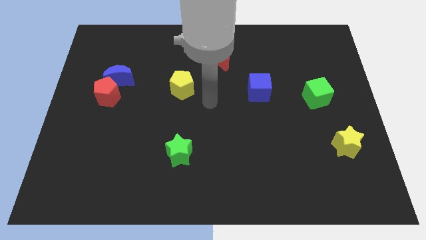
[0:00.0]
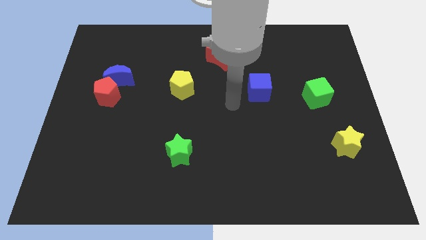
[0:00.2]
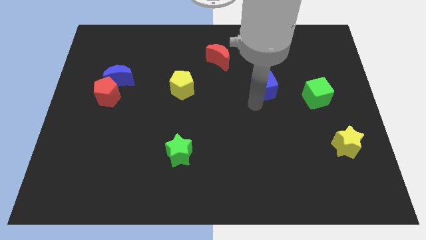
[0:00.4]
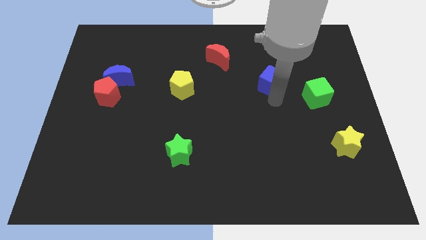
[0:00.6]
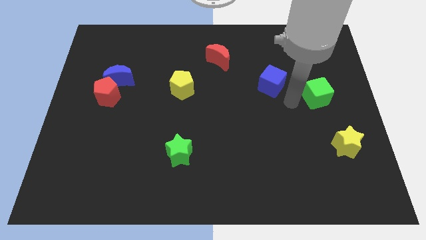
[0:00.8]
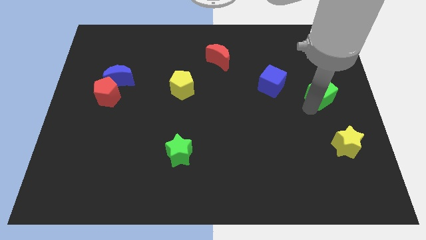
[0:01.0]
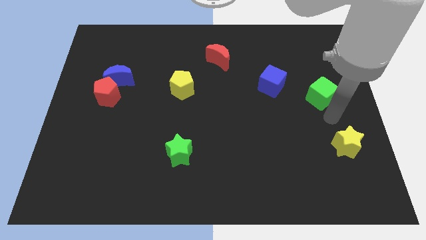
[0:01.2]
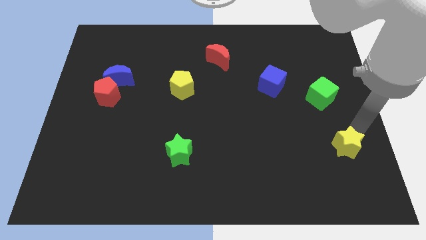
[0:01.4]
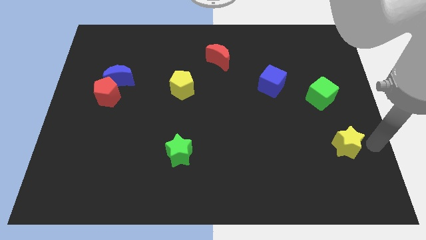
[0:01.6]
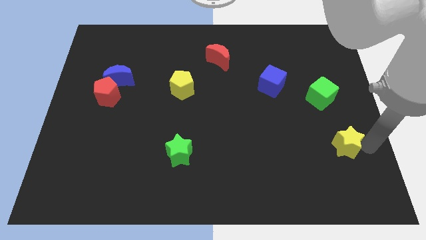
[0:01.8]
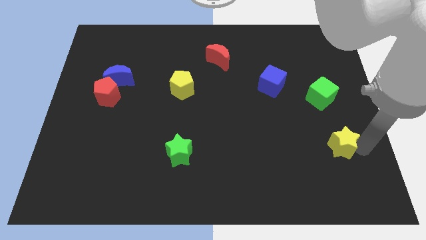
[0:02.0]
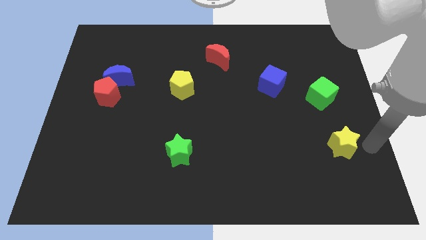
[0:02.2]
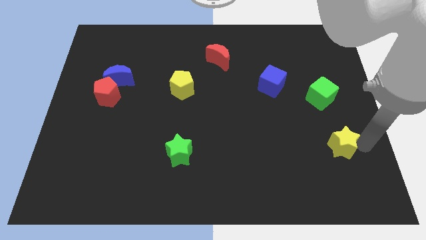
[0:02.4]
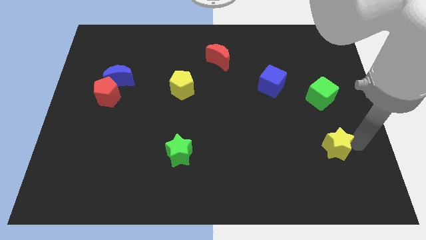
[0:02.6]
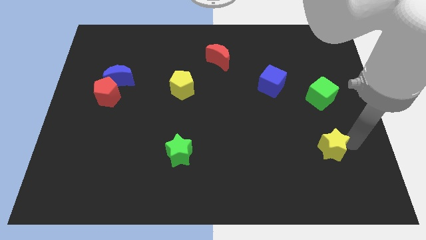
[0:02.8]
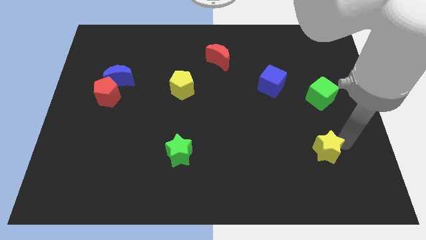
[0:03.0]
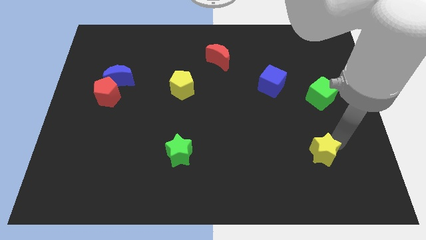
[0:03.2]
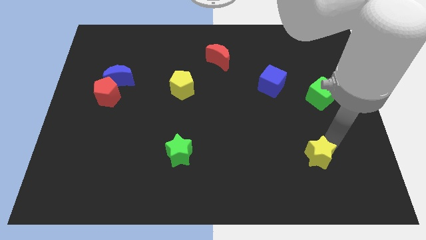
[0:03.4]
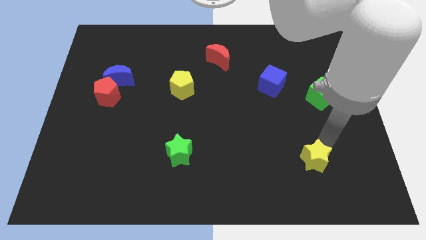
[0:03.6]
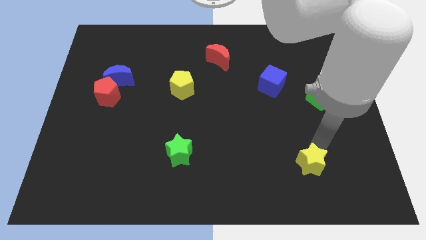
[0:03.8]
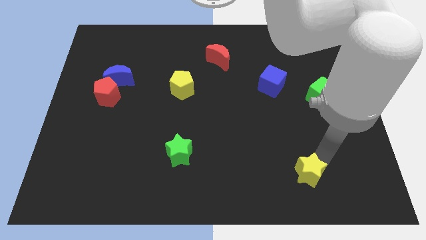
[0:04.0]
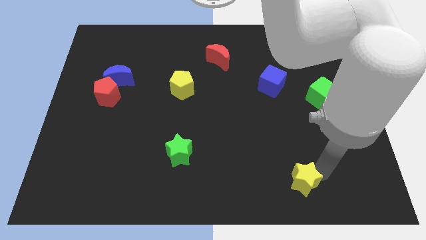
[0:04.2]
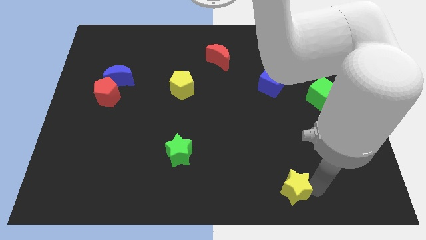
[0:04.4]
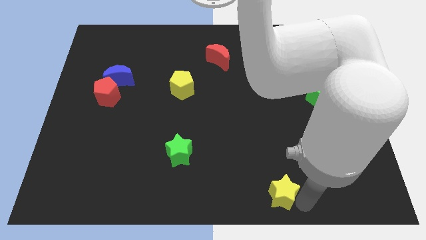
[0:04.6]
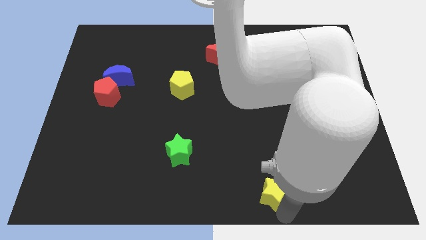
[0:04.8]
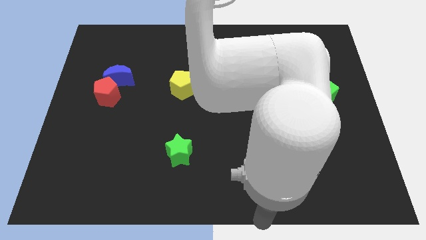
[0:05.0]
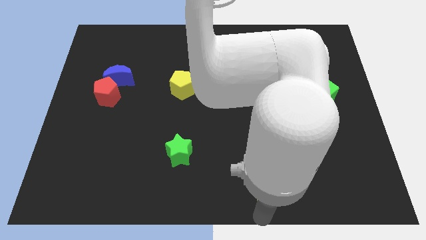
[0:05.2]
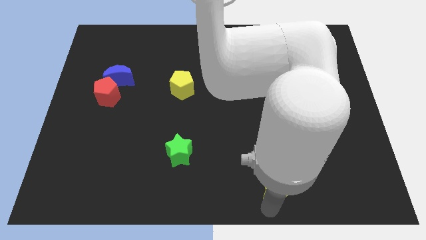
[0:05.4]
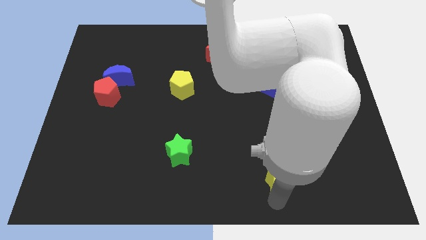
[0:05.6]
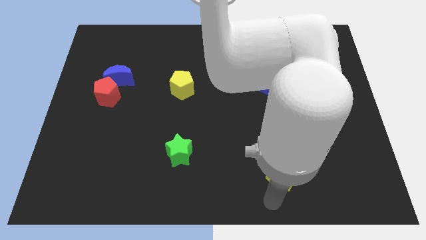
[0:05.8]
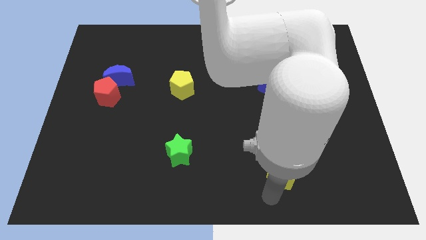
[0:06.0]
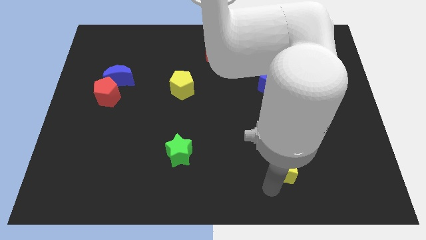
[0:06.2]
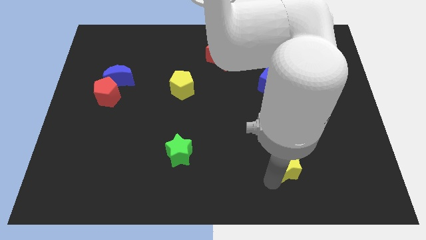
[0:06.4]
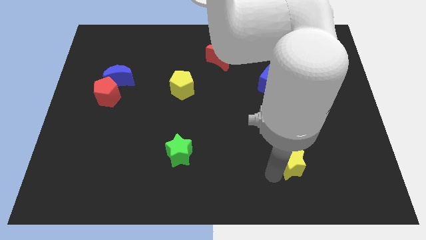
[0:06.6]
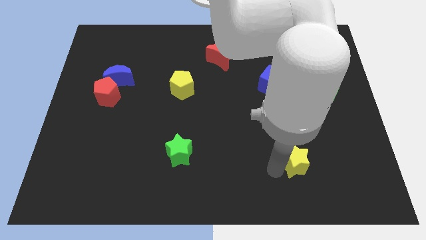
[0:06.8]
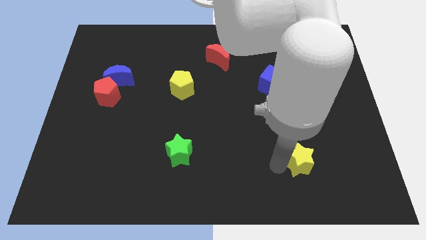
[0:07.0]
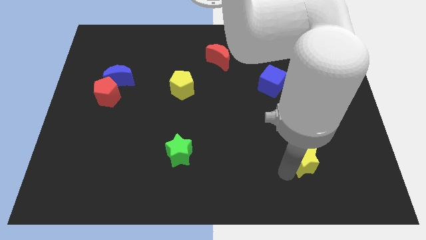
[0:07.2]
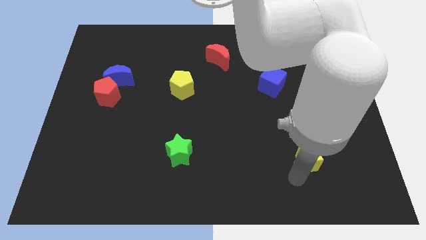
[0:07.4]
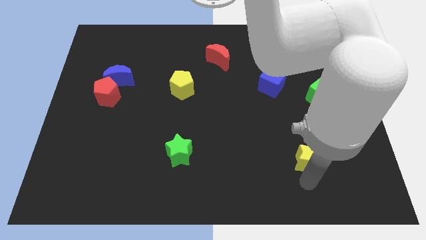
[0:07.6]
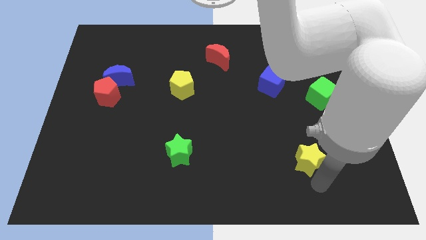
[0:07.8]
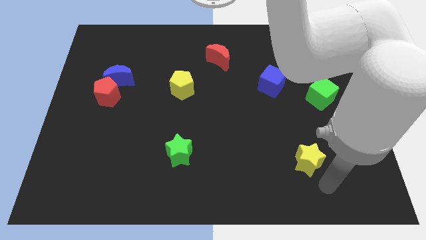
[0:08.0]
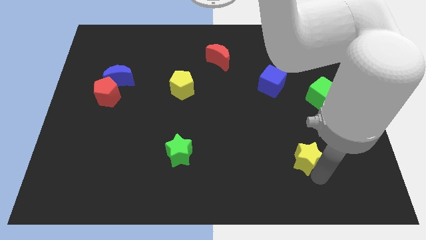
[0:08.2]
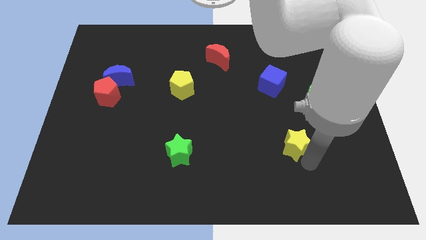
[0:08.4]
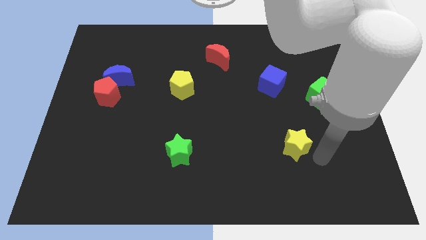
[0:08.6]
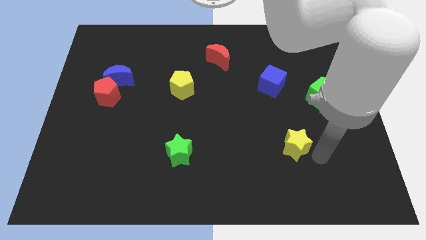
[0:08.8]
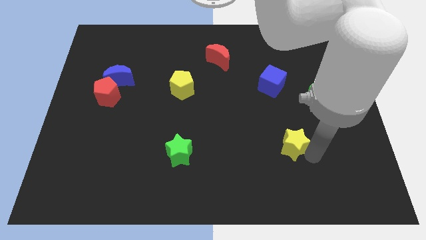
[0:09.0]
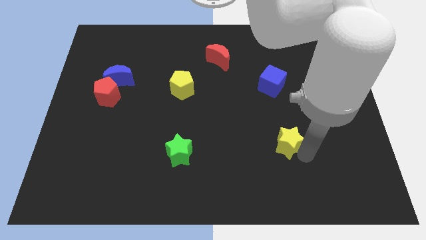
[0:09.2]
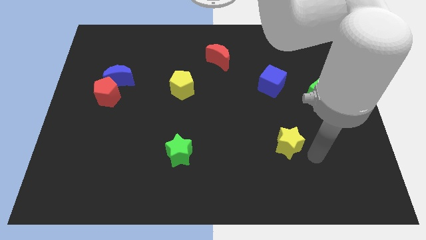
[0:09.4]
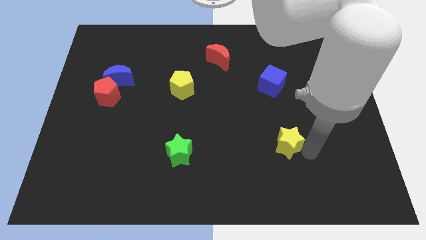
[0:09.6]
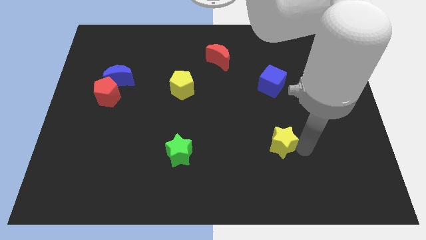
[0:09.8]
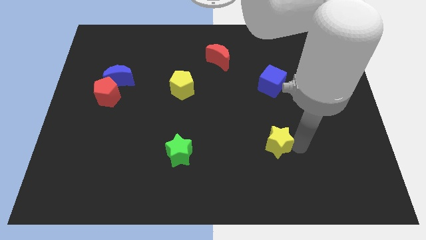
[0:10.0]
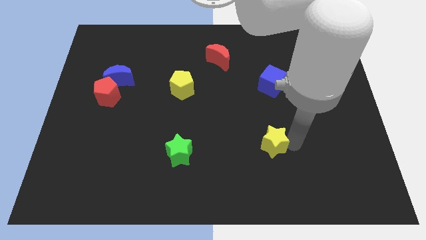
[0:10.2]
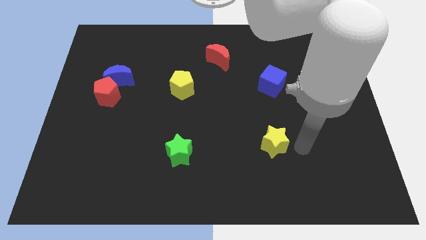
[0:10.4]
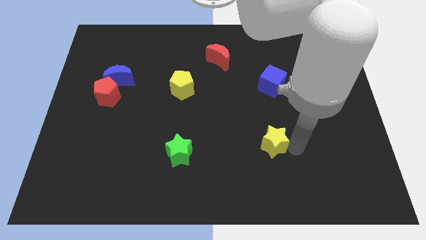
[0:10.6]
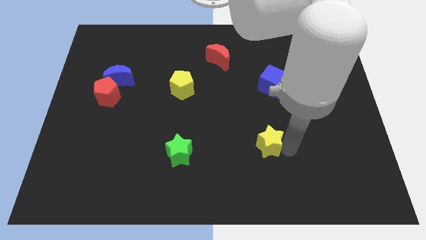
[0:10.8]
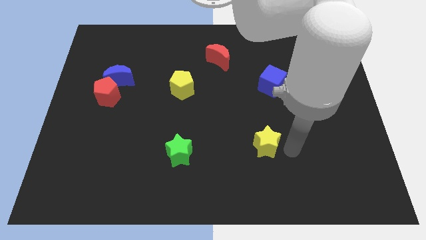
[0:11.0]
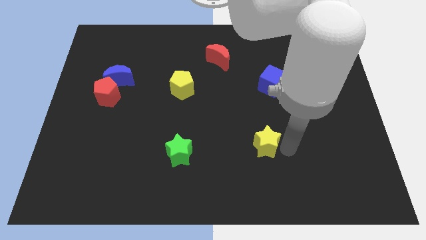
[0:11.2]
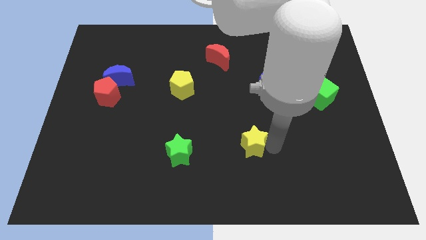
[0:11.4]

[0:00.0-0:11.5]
move the yellow star left

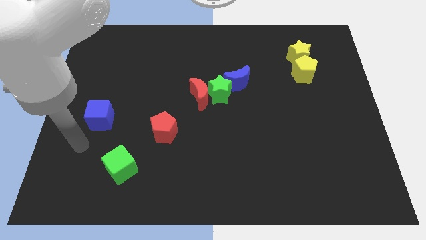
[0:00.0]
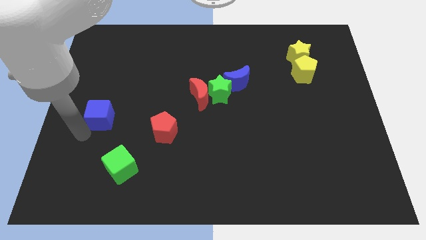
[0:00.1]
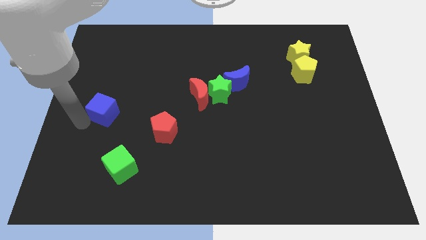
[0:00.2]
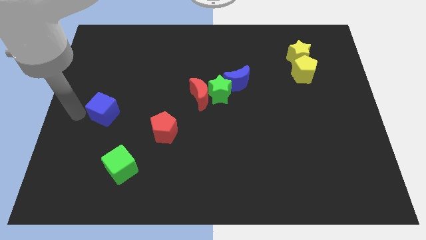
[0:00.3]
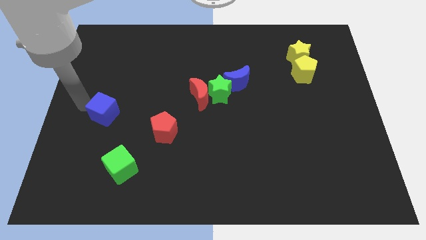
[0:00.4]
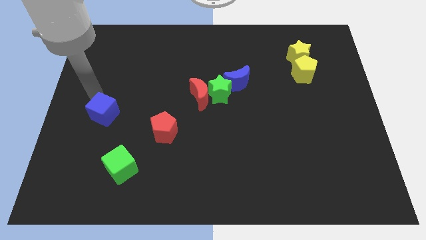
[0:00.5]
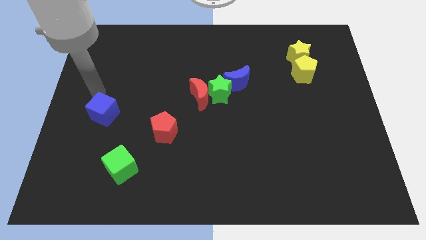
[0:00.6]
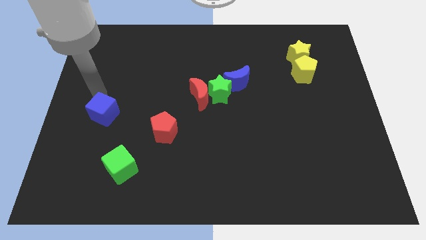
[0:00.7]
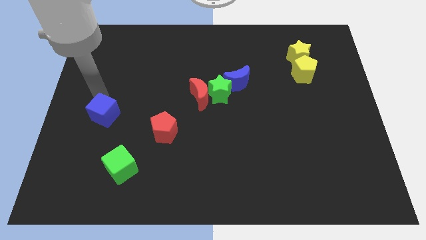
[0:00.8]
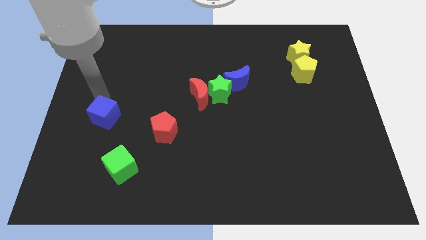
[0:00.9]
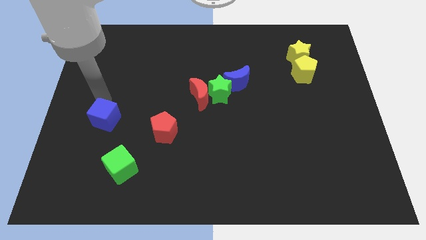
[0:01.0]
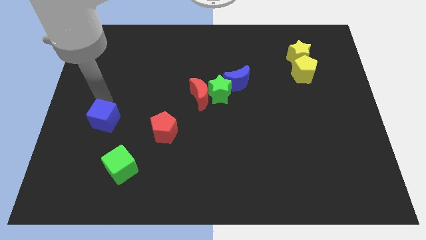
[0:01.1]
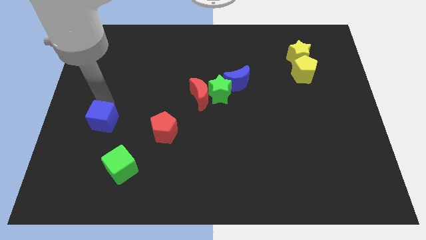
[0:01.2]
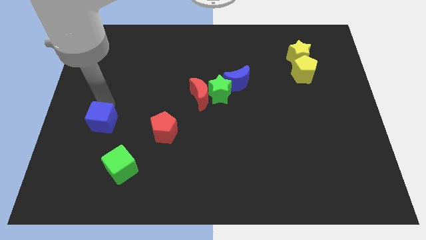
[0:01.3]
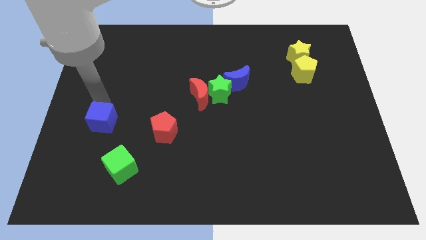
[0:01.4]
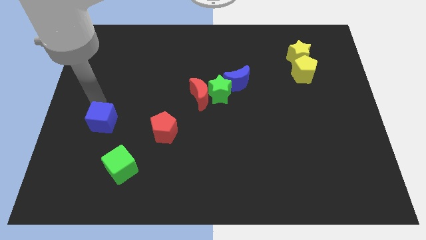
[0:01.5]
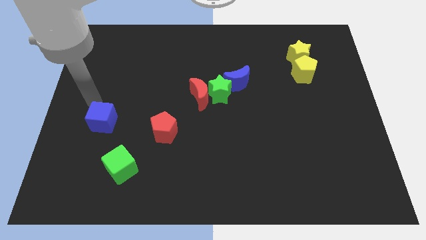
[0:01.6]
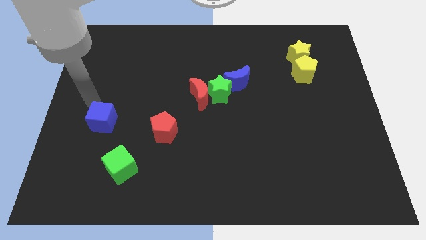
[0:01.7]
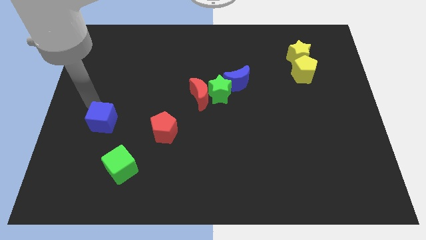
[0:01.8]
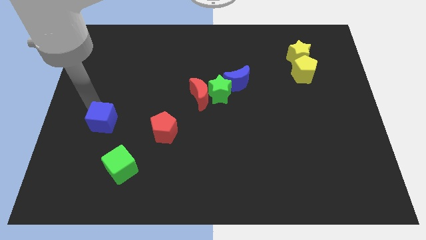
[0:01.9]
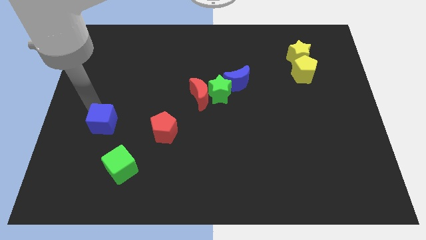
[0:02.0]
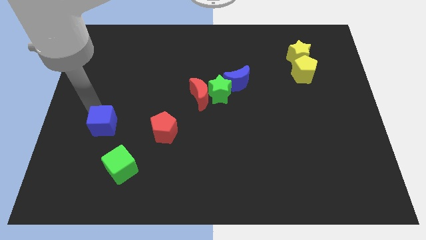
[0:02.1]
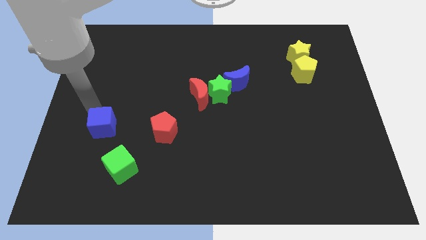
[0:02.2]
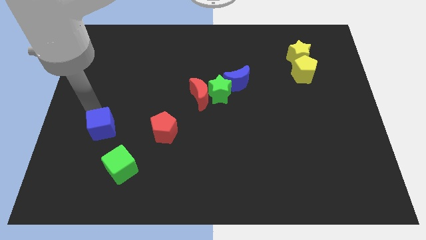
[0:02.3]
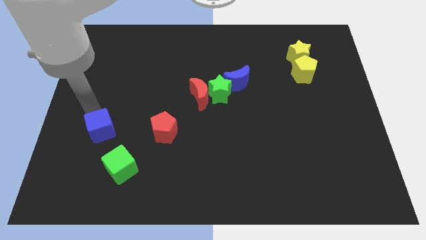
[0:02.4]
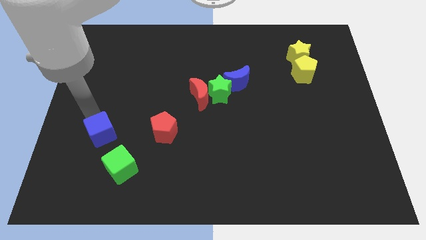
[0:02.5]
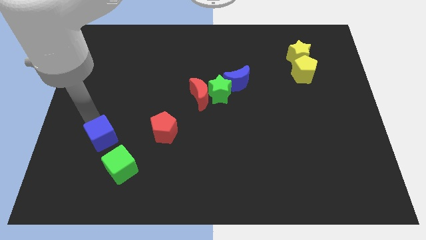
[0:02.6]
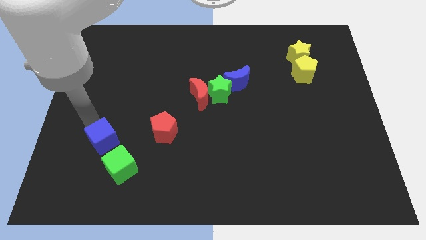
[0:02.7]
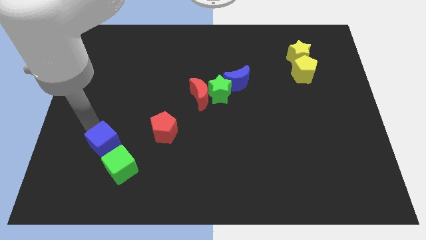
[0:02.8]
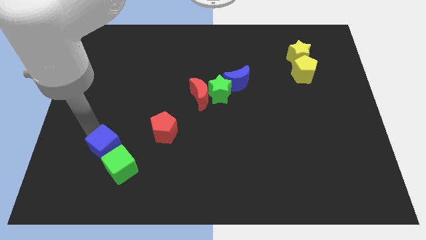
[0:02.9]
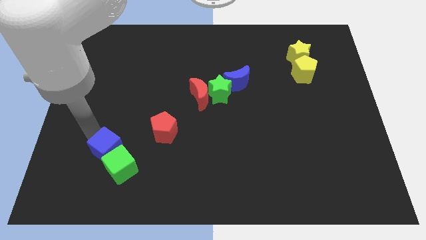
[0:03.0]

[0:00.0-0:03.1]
push the blue cube a little bit downwards and to the right
